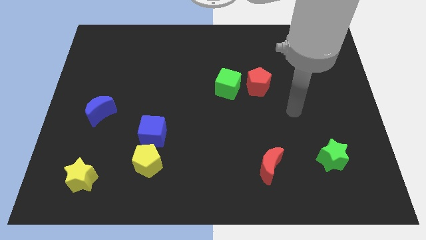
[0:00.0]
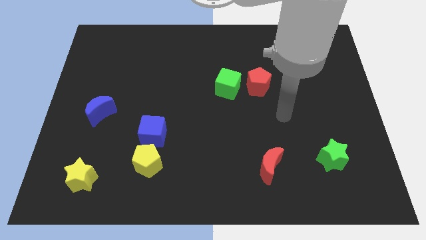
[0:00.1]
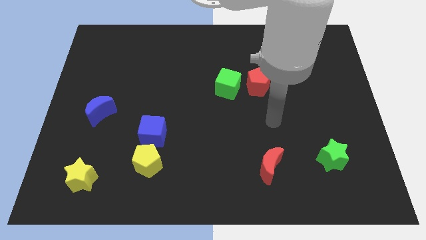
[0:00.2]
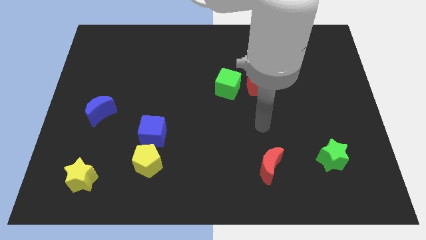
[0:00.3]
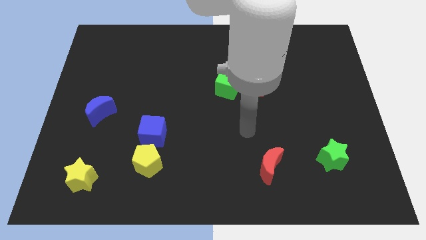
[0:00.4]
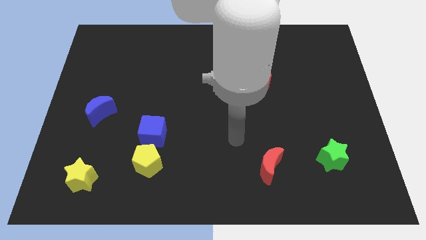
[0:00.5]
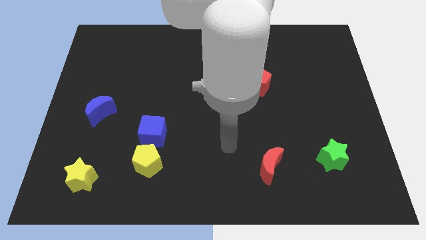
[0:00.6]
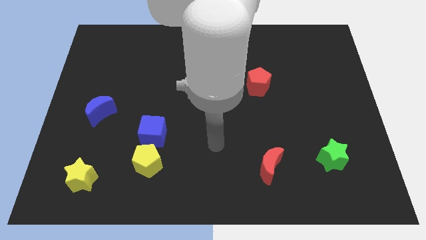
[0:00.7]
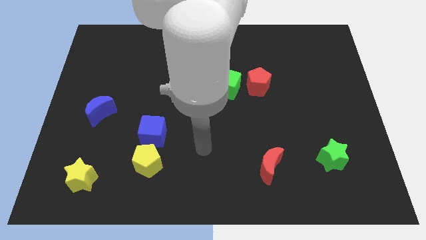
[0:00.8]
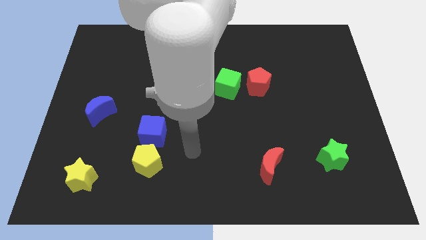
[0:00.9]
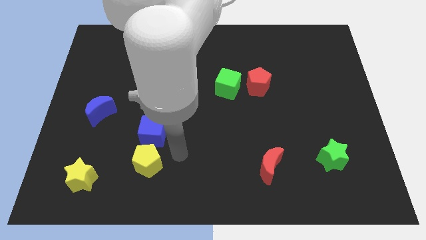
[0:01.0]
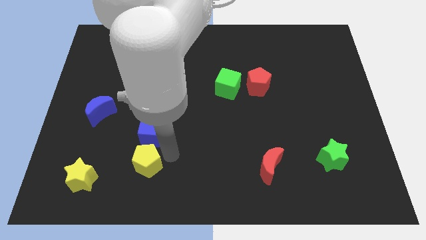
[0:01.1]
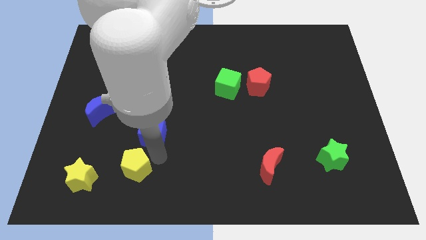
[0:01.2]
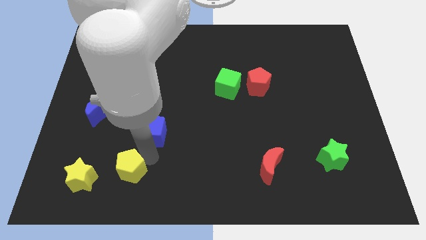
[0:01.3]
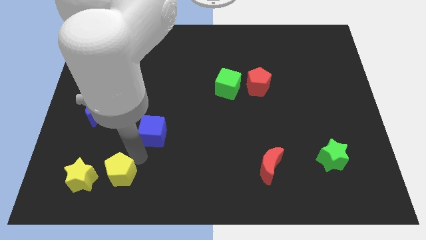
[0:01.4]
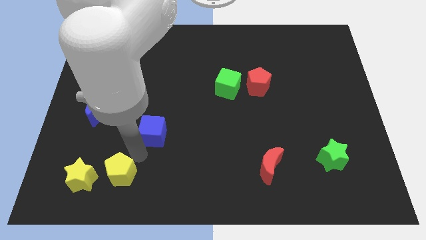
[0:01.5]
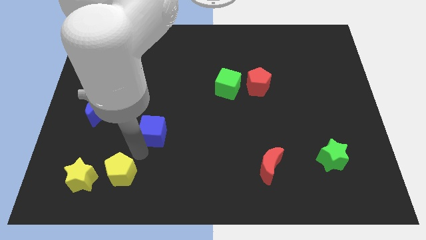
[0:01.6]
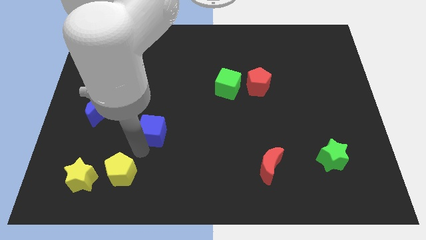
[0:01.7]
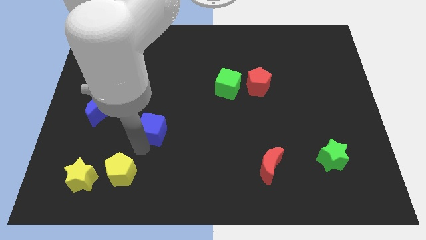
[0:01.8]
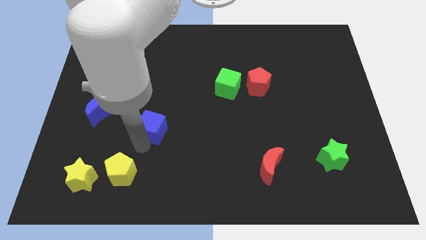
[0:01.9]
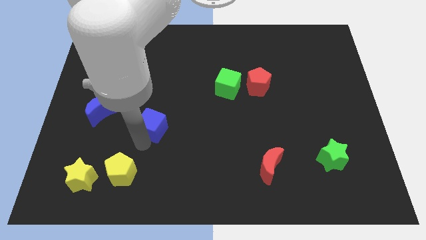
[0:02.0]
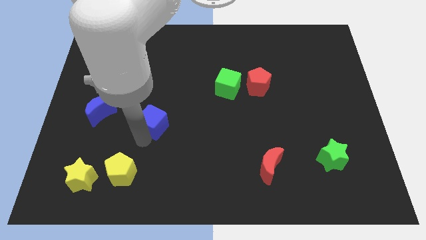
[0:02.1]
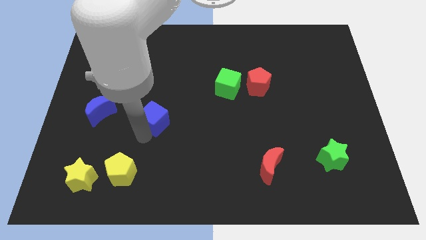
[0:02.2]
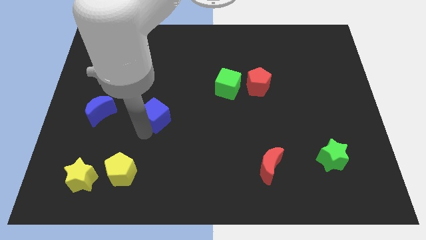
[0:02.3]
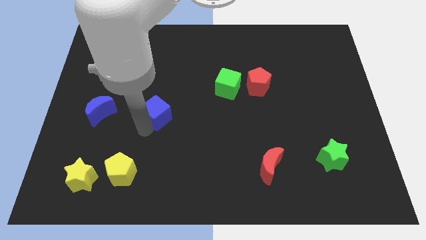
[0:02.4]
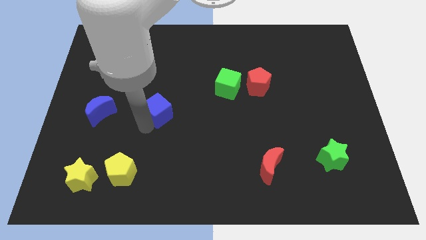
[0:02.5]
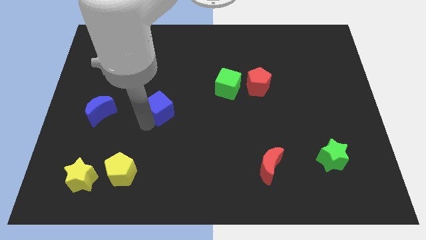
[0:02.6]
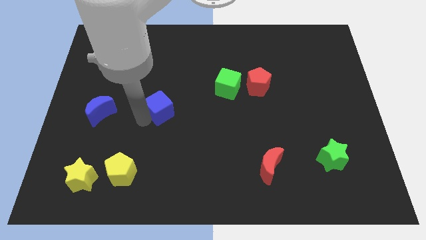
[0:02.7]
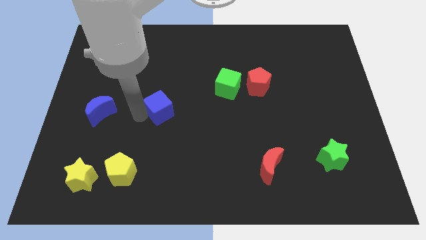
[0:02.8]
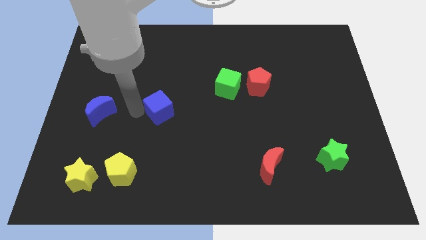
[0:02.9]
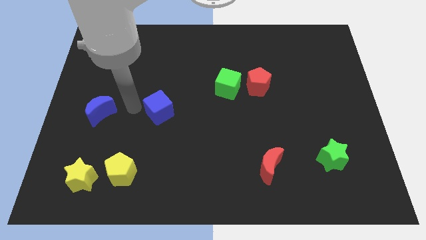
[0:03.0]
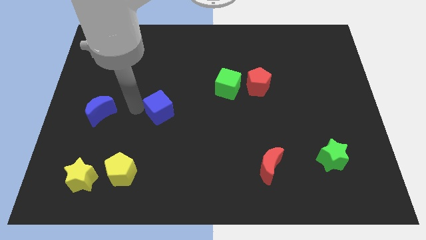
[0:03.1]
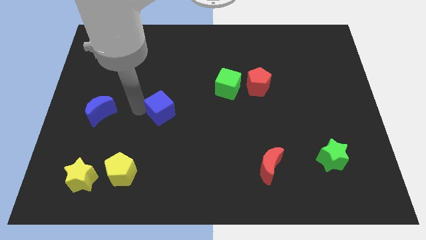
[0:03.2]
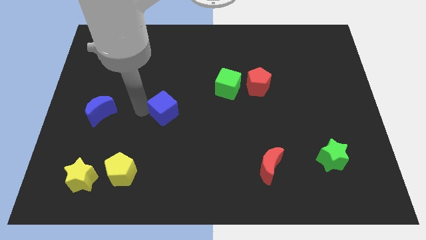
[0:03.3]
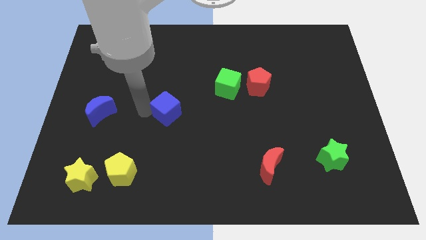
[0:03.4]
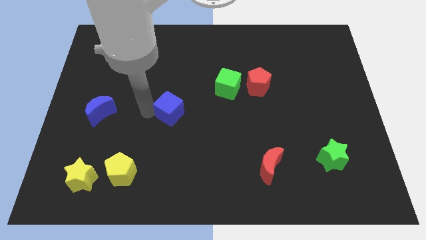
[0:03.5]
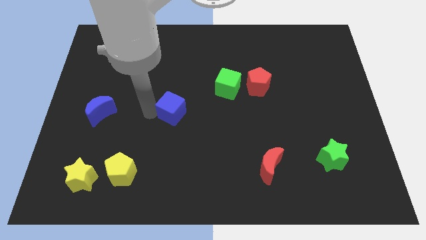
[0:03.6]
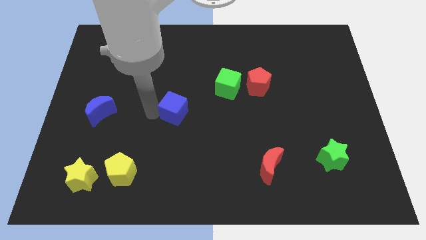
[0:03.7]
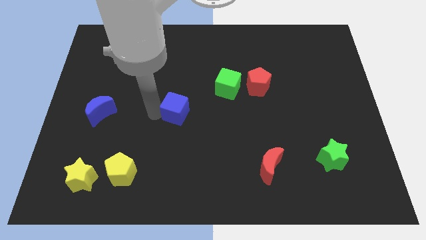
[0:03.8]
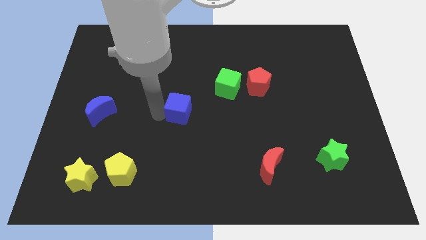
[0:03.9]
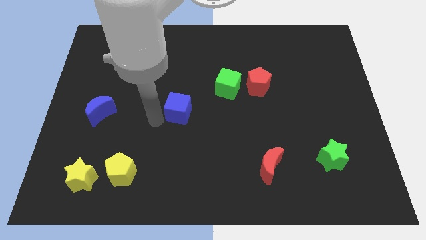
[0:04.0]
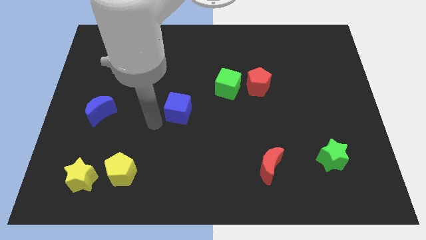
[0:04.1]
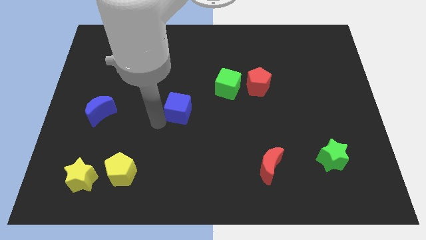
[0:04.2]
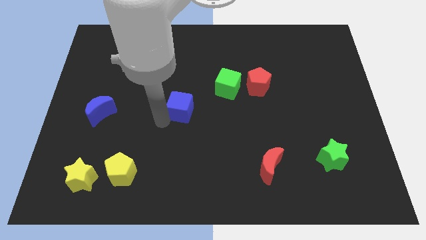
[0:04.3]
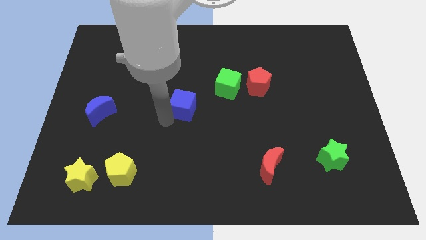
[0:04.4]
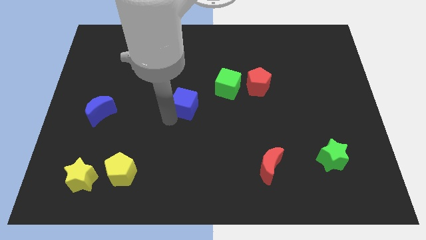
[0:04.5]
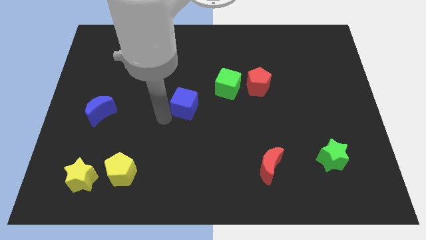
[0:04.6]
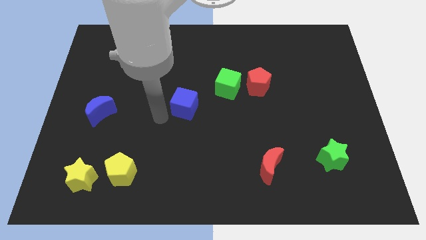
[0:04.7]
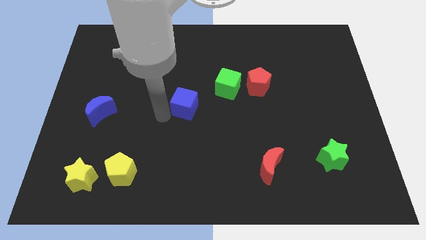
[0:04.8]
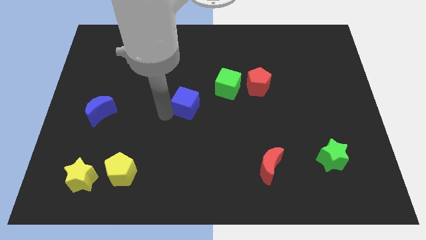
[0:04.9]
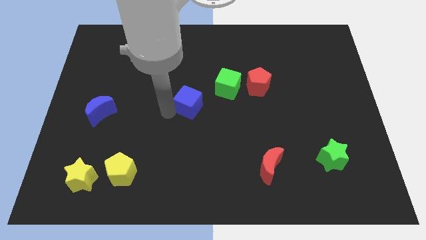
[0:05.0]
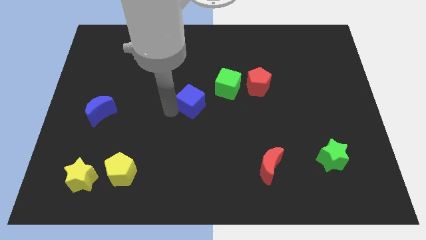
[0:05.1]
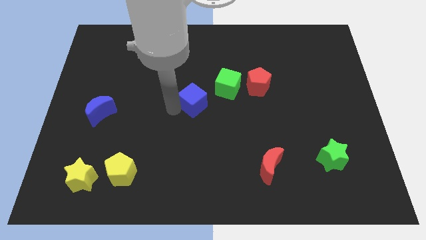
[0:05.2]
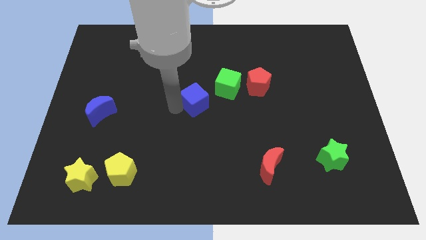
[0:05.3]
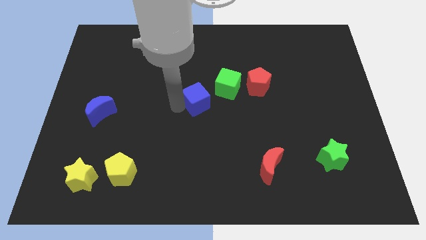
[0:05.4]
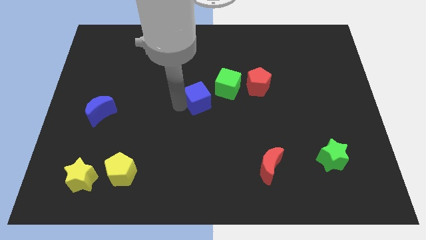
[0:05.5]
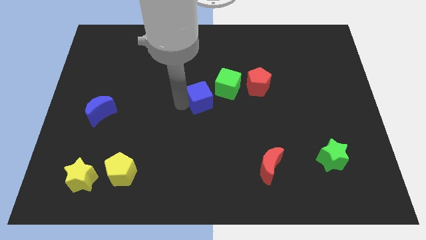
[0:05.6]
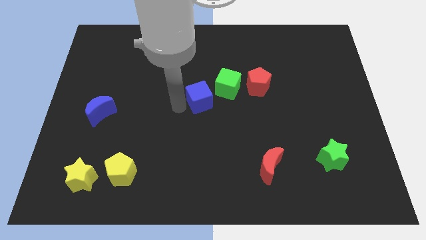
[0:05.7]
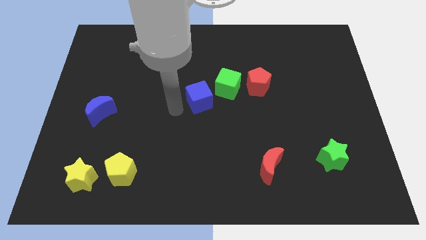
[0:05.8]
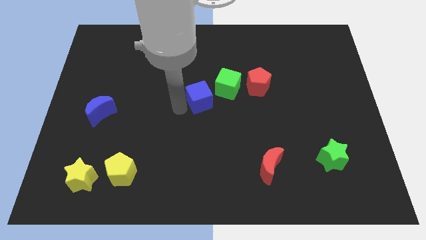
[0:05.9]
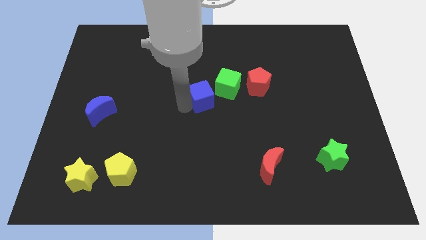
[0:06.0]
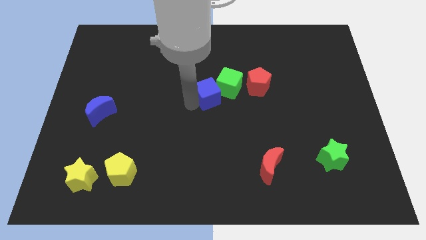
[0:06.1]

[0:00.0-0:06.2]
push the blue cube to the green cube

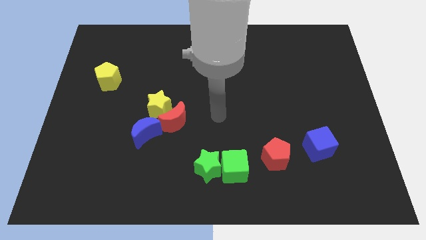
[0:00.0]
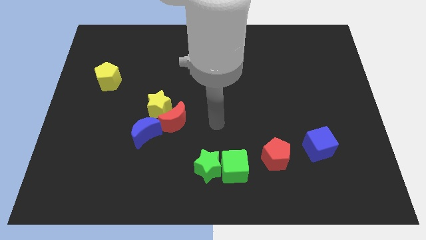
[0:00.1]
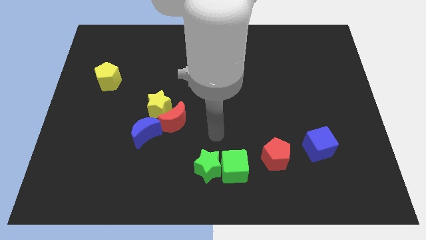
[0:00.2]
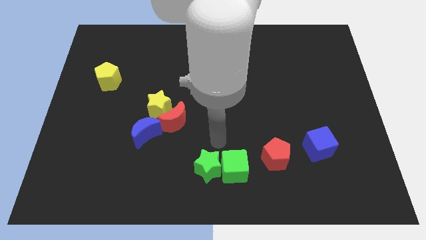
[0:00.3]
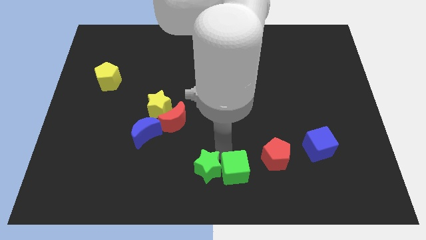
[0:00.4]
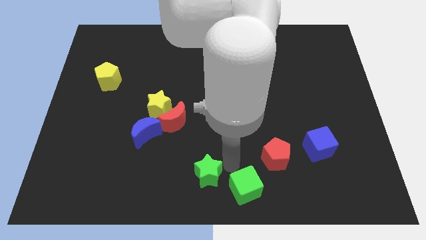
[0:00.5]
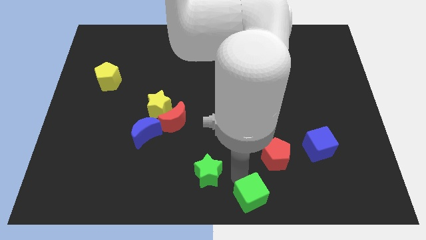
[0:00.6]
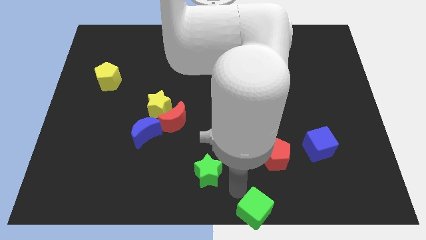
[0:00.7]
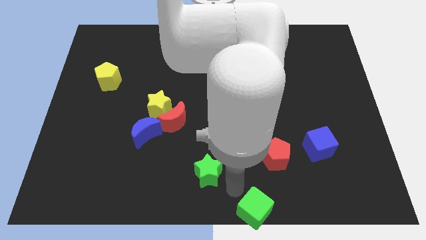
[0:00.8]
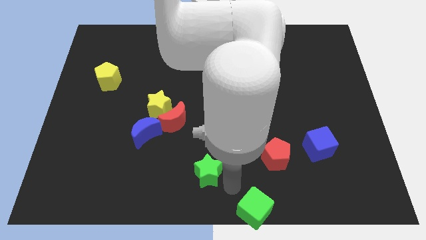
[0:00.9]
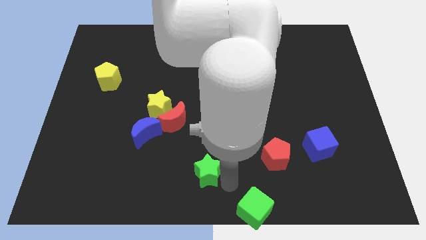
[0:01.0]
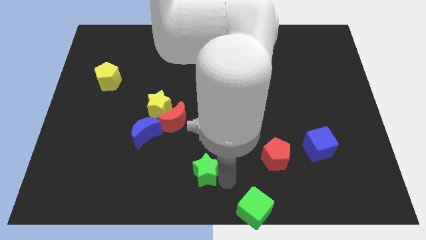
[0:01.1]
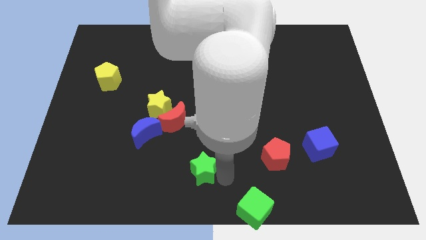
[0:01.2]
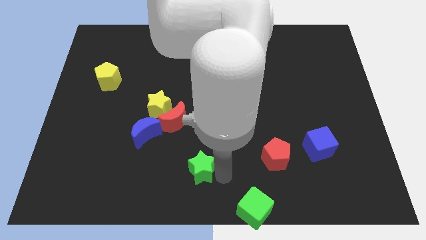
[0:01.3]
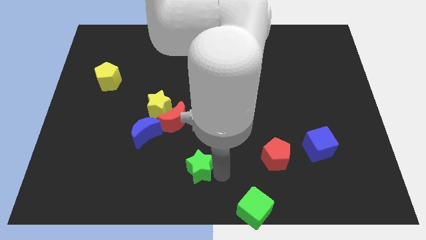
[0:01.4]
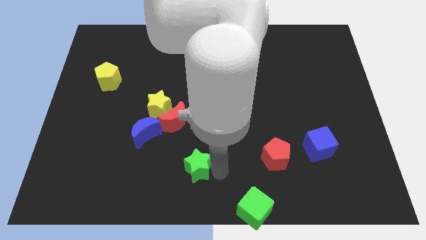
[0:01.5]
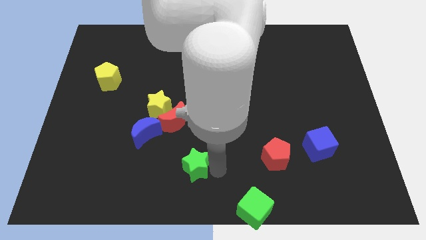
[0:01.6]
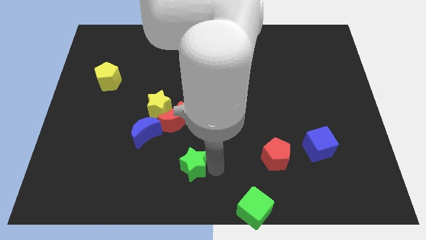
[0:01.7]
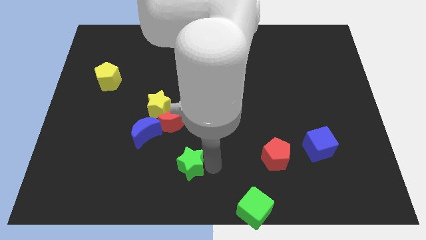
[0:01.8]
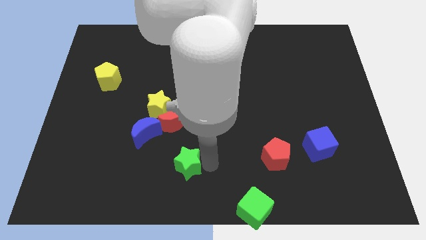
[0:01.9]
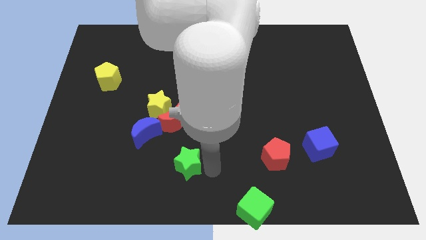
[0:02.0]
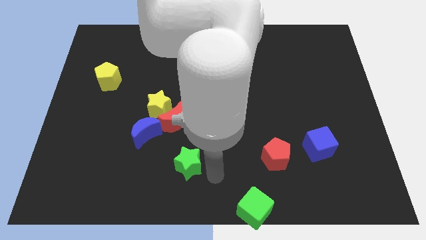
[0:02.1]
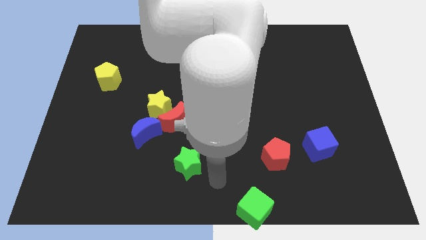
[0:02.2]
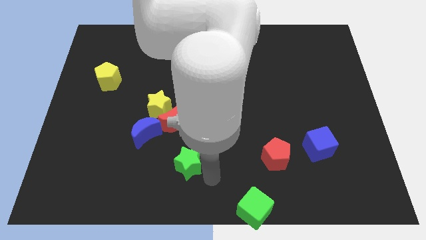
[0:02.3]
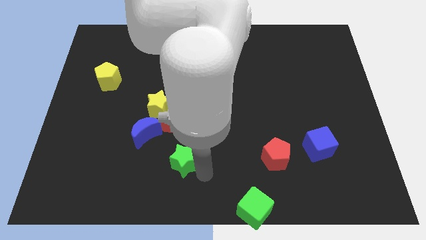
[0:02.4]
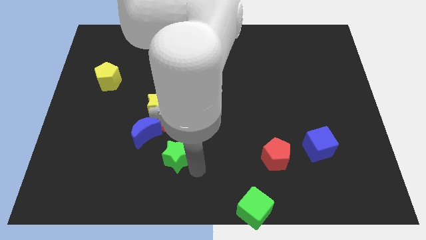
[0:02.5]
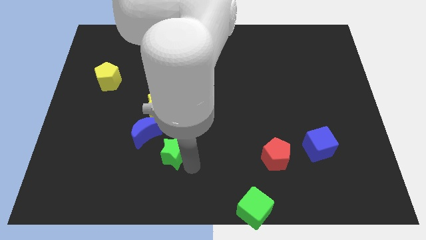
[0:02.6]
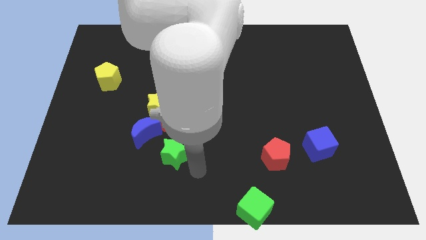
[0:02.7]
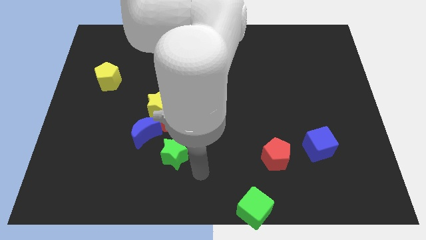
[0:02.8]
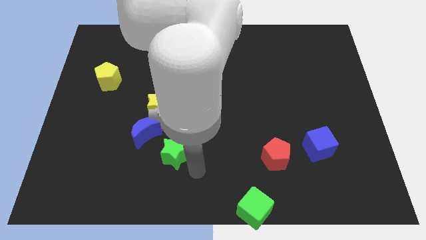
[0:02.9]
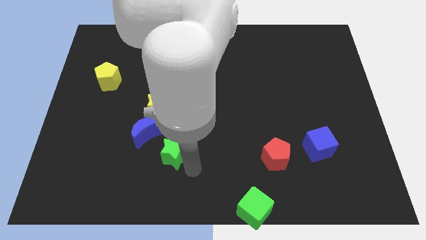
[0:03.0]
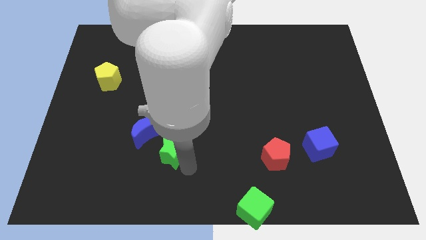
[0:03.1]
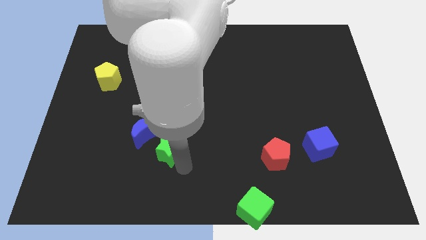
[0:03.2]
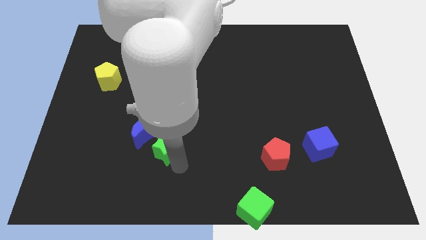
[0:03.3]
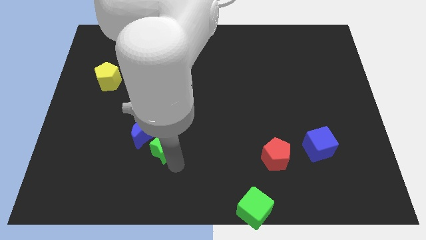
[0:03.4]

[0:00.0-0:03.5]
move the green star towards the blue moon
